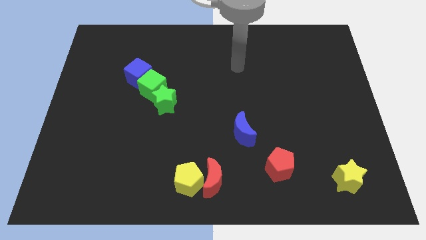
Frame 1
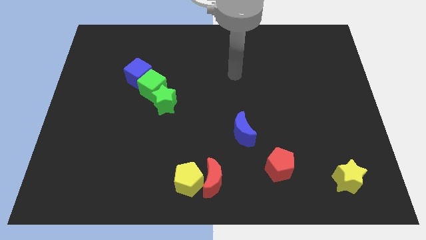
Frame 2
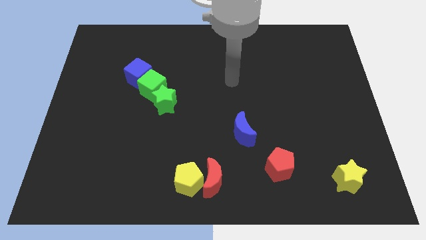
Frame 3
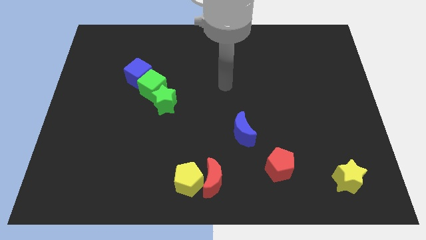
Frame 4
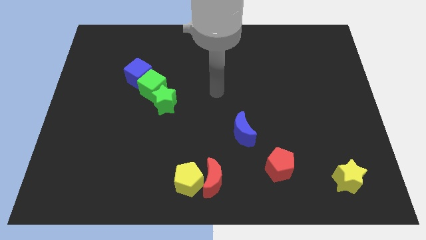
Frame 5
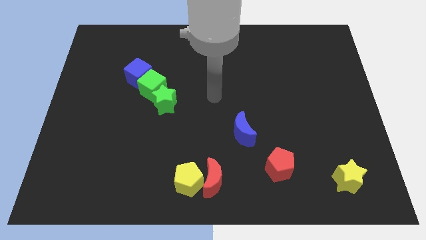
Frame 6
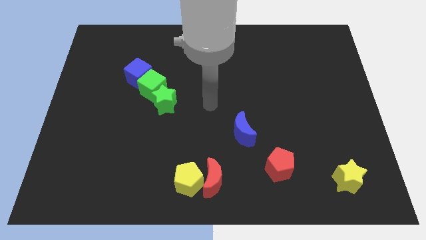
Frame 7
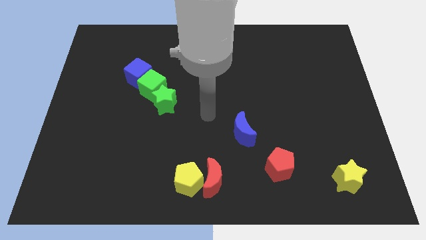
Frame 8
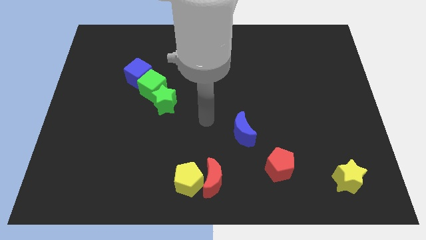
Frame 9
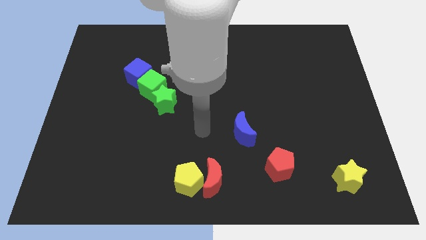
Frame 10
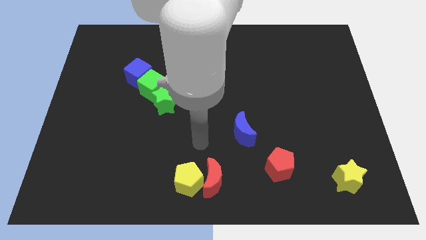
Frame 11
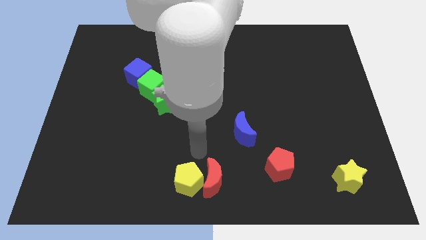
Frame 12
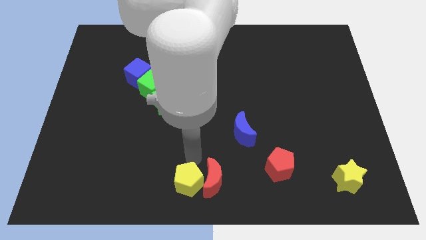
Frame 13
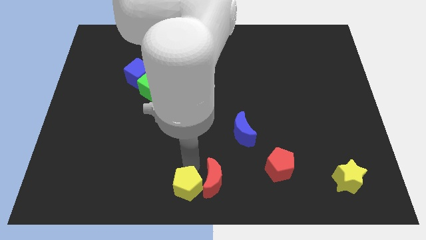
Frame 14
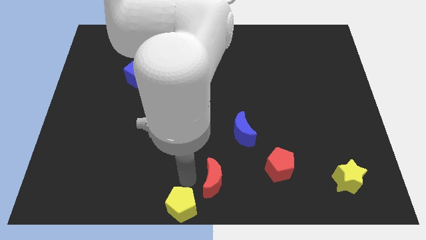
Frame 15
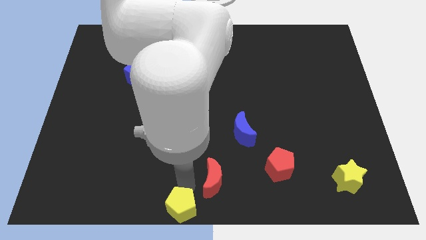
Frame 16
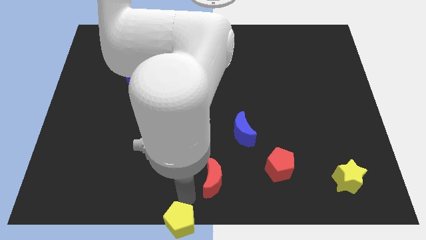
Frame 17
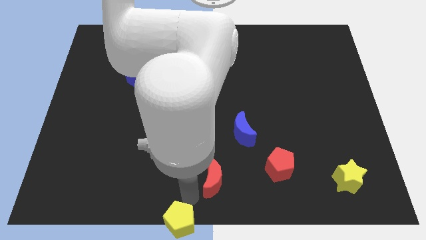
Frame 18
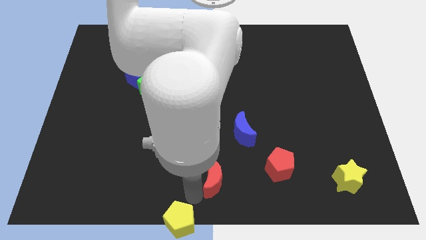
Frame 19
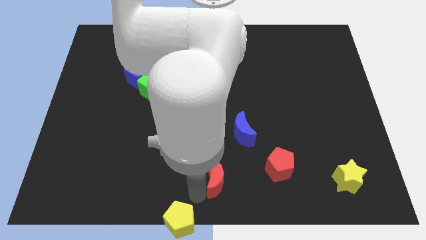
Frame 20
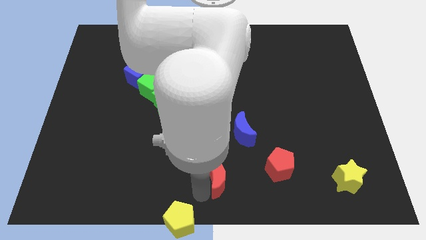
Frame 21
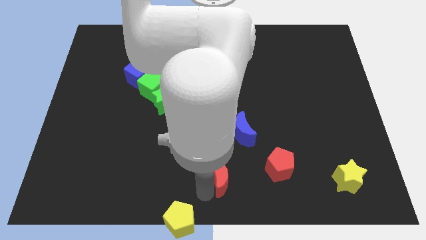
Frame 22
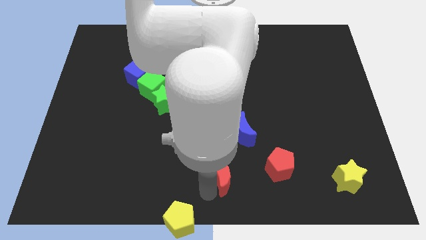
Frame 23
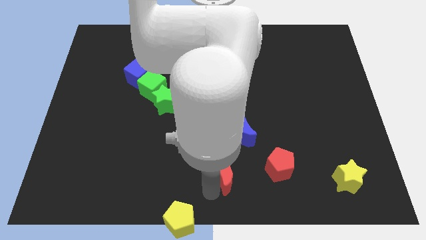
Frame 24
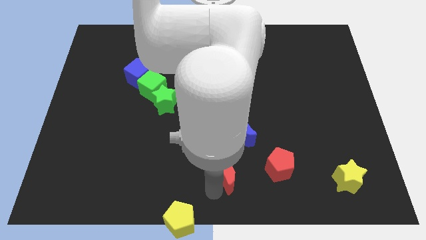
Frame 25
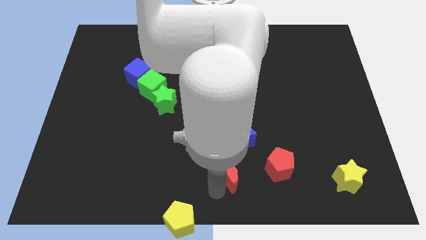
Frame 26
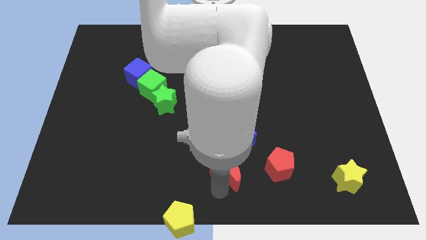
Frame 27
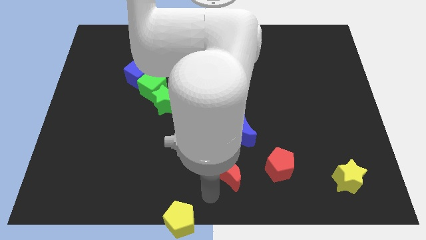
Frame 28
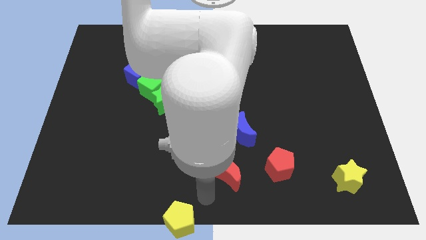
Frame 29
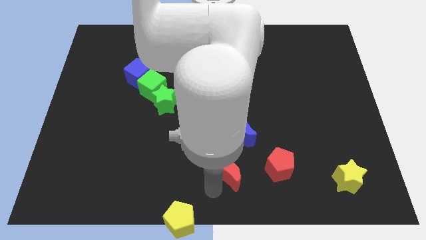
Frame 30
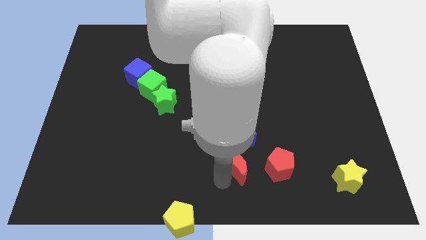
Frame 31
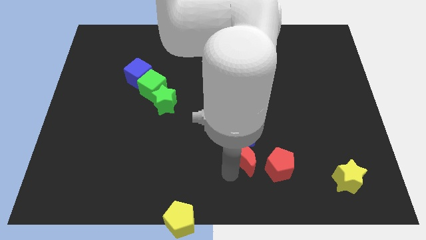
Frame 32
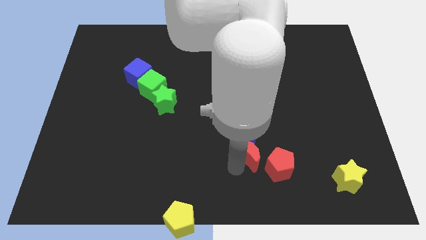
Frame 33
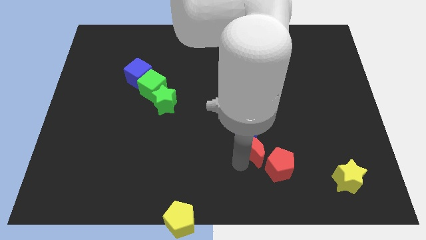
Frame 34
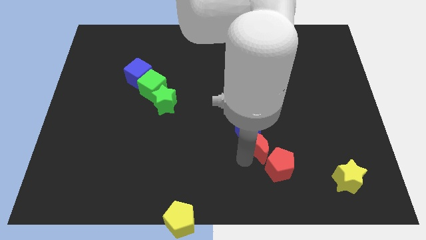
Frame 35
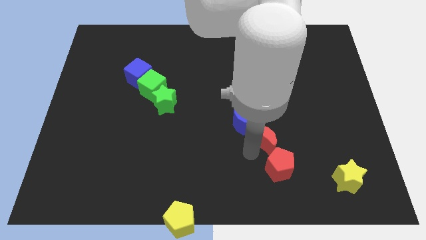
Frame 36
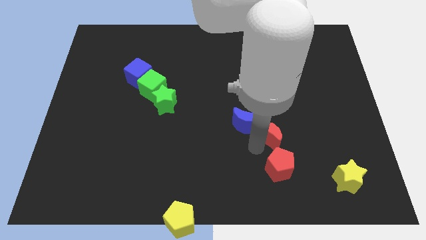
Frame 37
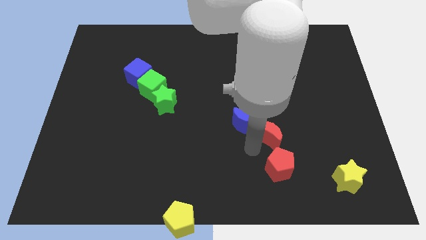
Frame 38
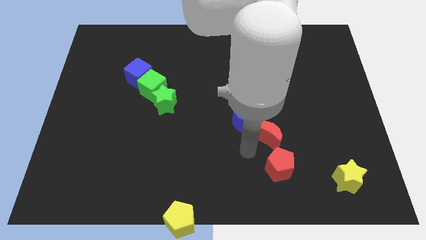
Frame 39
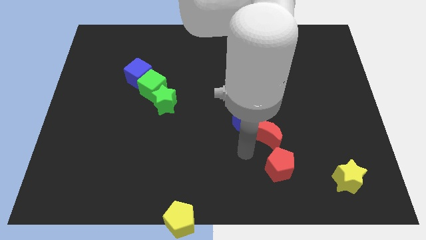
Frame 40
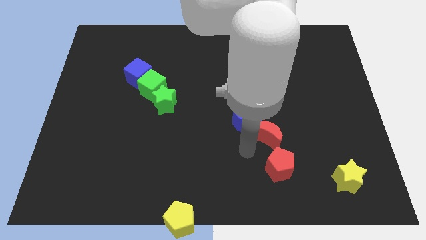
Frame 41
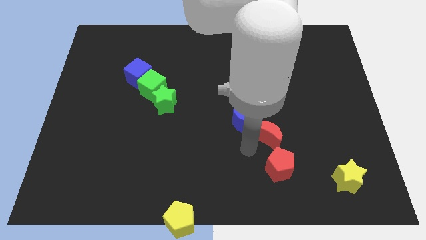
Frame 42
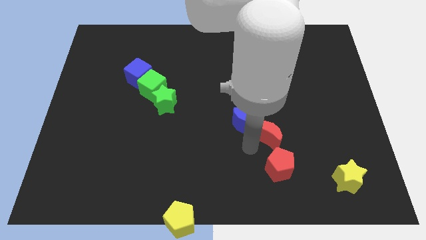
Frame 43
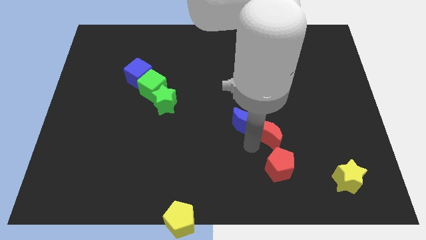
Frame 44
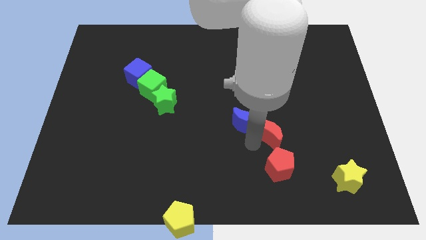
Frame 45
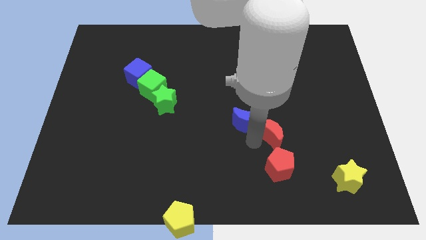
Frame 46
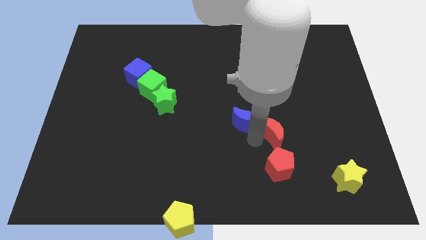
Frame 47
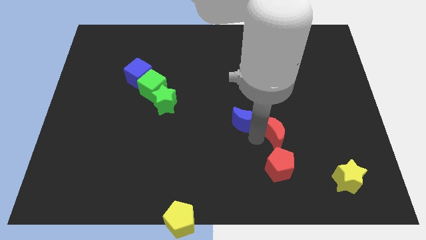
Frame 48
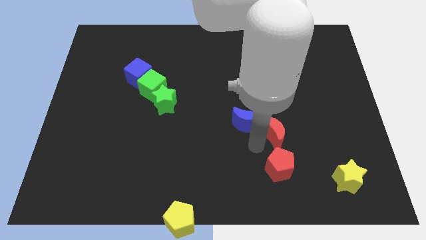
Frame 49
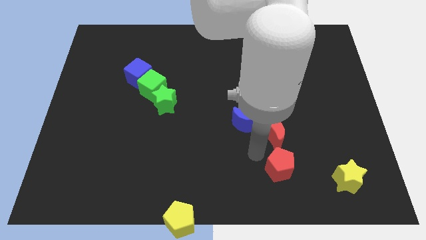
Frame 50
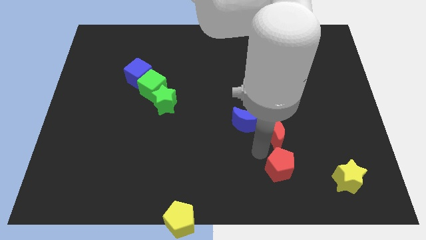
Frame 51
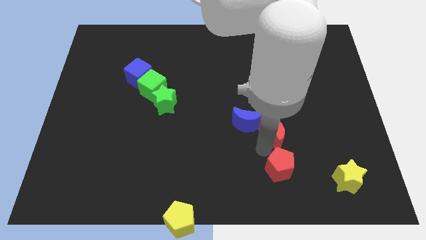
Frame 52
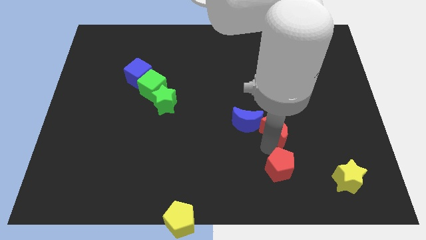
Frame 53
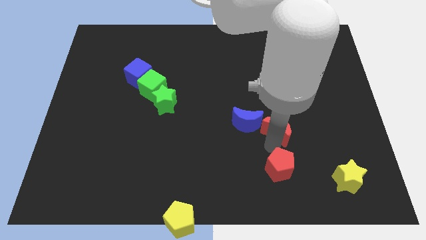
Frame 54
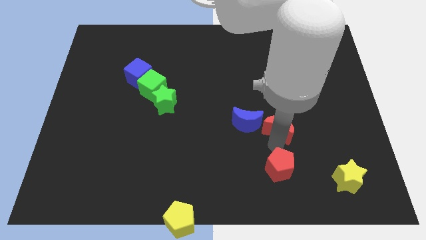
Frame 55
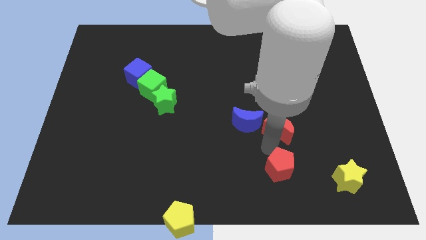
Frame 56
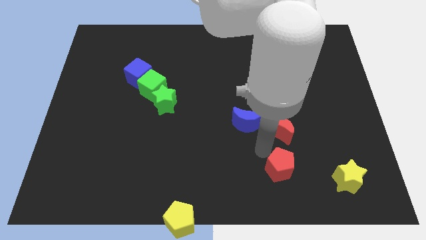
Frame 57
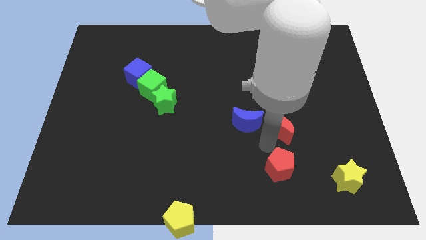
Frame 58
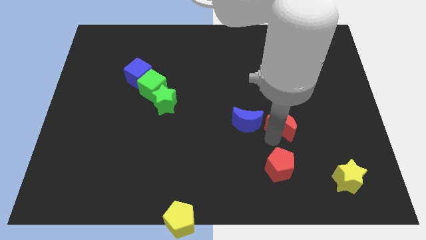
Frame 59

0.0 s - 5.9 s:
move the red moon upwards and then right

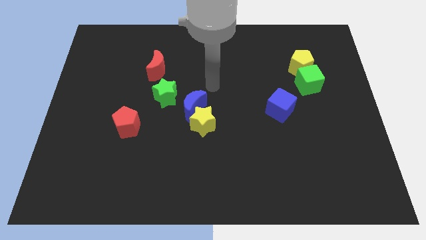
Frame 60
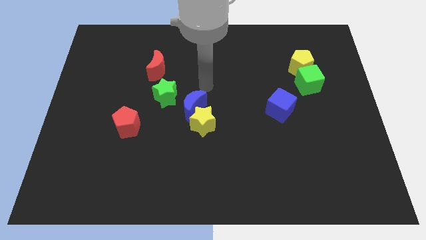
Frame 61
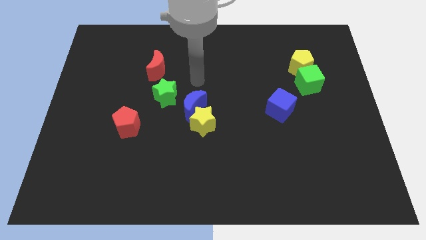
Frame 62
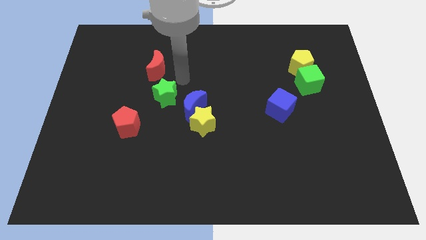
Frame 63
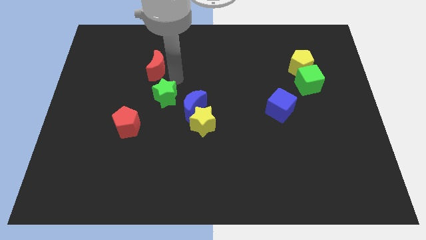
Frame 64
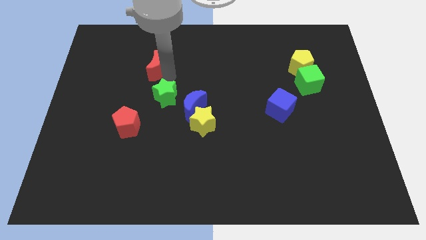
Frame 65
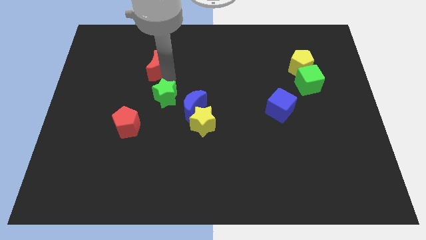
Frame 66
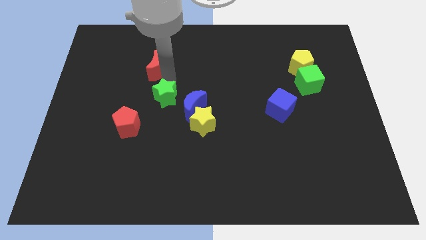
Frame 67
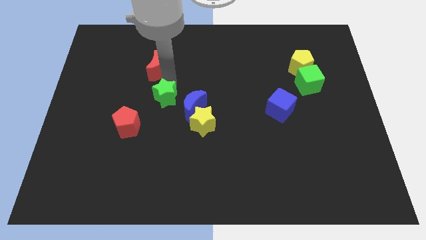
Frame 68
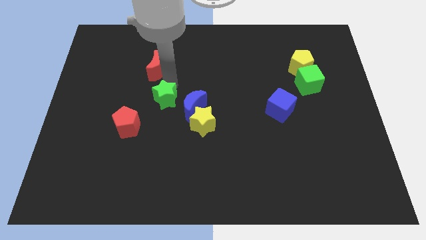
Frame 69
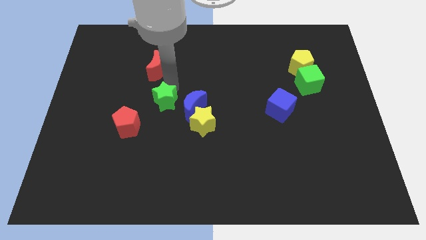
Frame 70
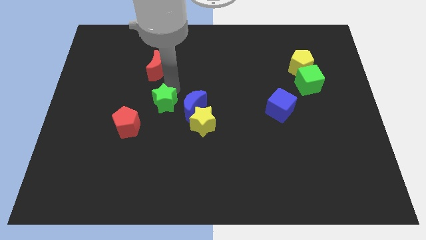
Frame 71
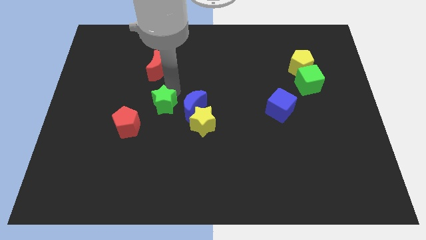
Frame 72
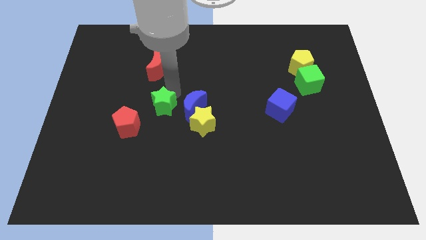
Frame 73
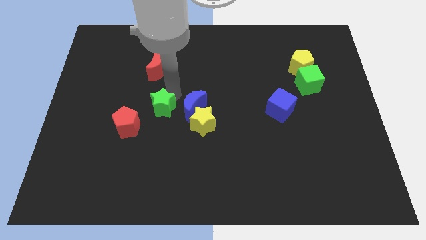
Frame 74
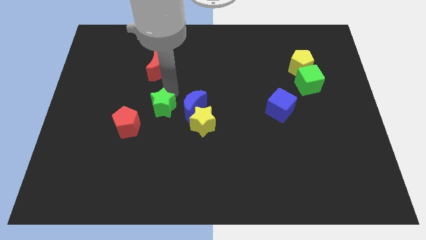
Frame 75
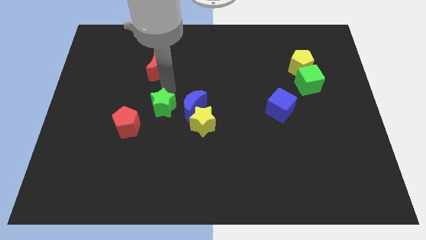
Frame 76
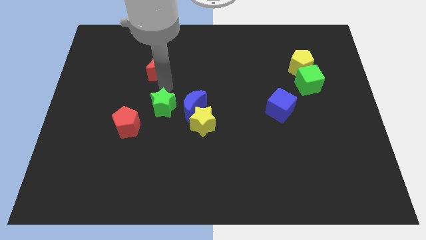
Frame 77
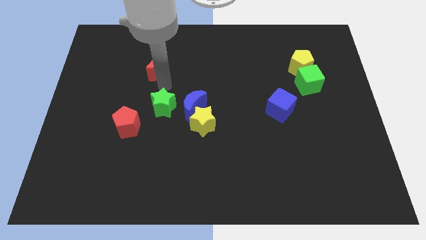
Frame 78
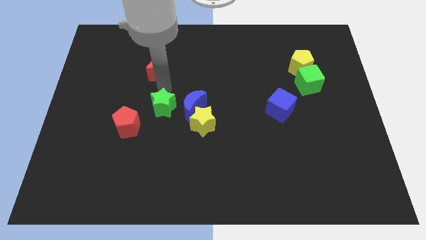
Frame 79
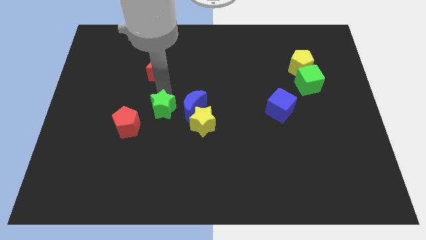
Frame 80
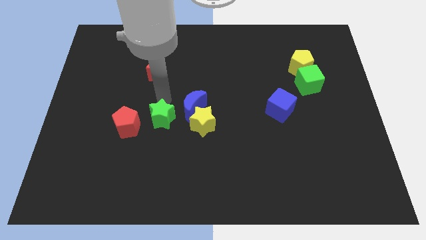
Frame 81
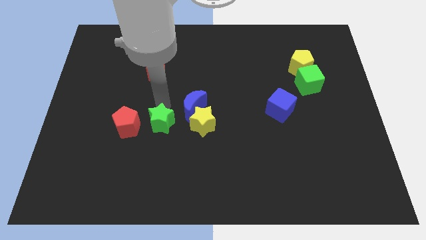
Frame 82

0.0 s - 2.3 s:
push the green star downwards a little

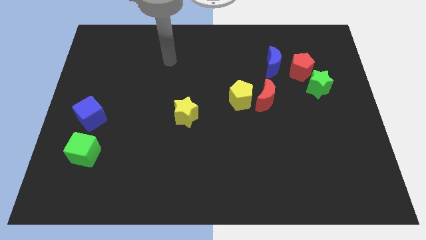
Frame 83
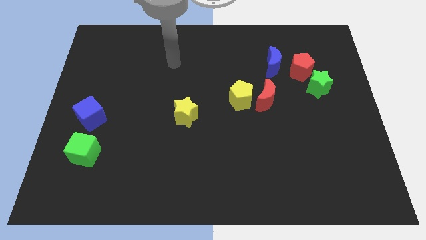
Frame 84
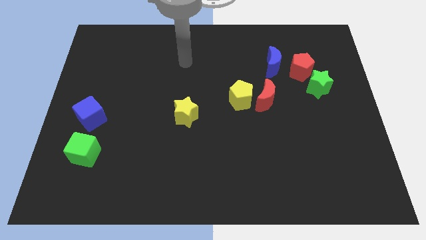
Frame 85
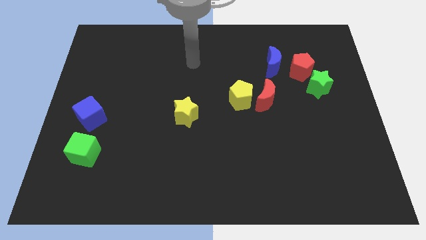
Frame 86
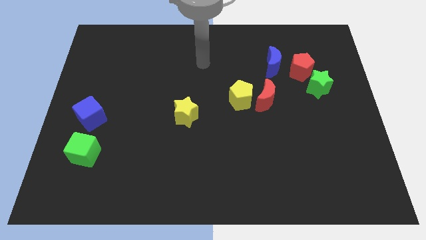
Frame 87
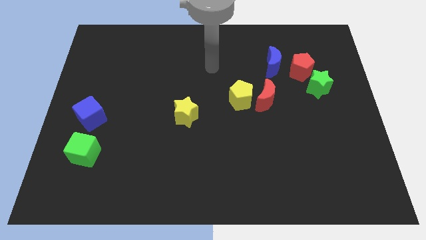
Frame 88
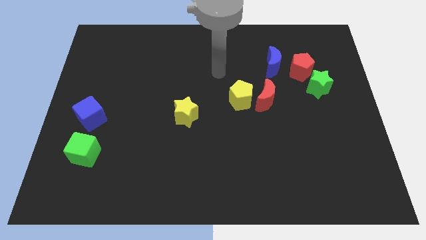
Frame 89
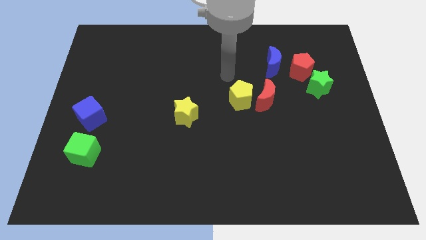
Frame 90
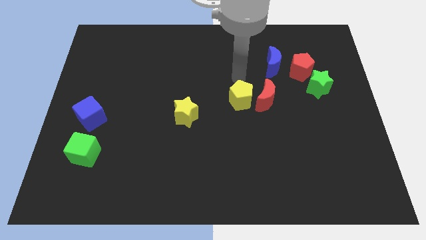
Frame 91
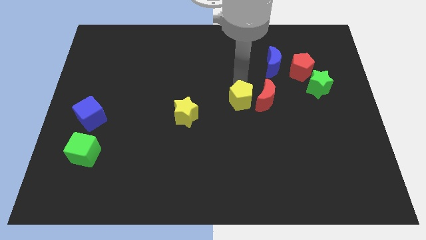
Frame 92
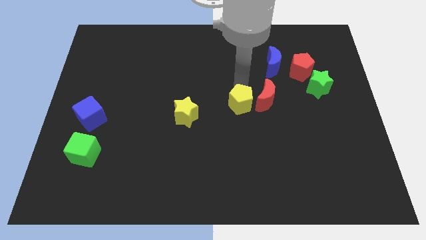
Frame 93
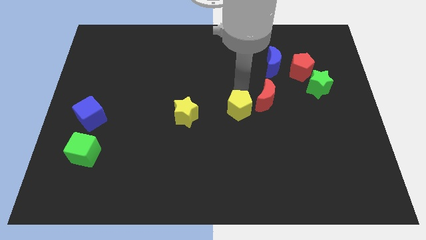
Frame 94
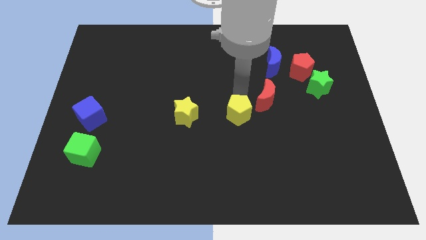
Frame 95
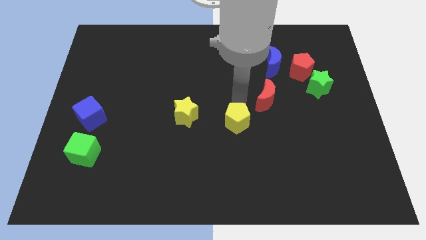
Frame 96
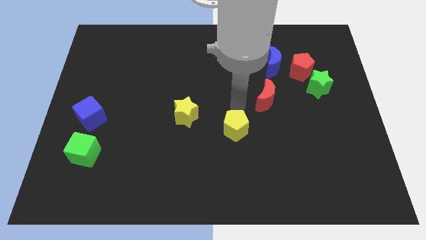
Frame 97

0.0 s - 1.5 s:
move the yellow pentagon somewhat downwards
